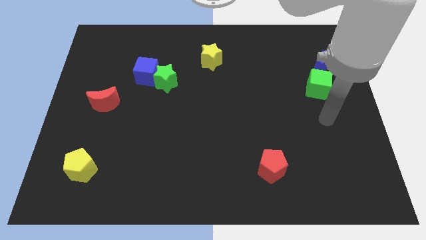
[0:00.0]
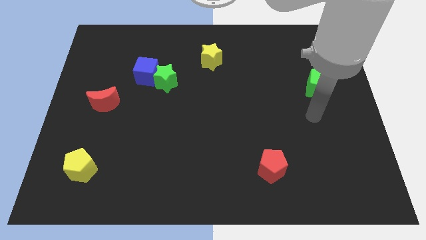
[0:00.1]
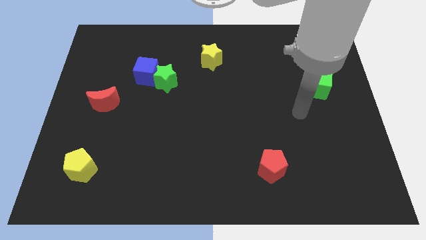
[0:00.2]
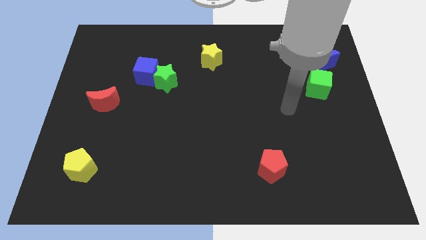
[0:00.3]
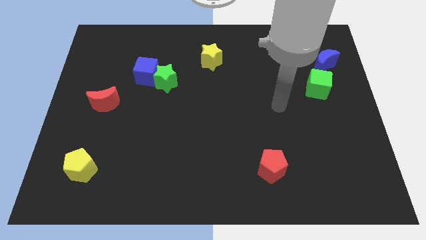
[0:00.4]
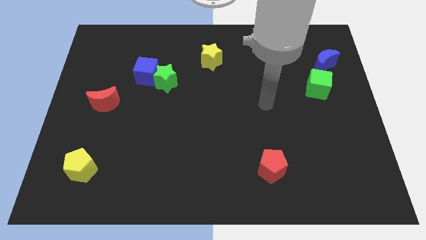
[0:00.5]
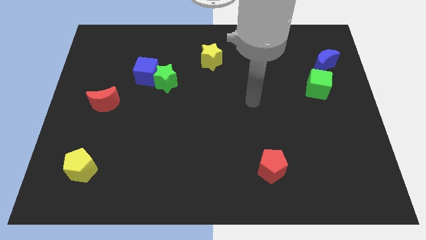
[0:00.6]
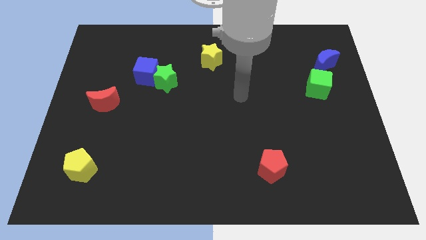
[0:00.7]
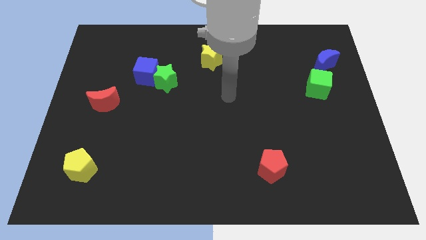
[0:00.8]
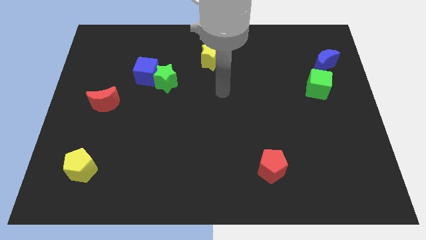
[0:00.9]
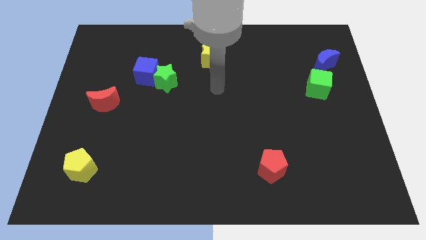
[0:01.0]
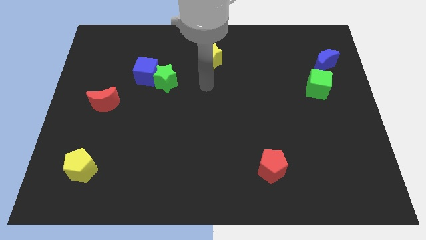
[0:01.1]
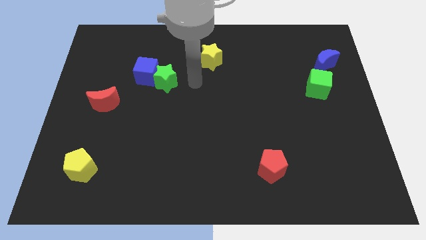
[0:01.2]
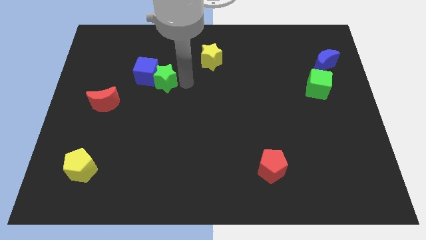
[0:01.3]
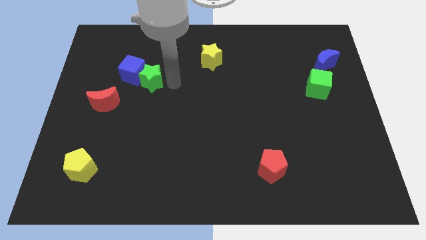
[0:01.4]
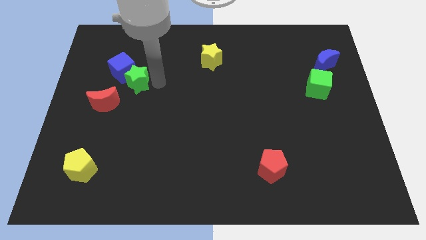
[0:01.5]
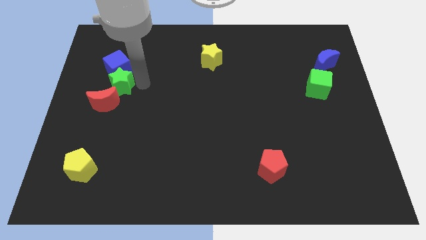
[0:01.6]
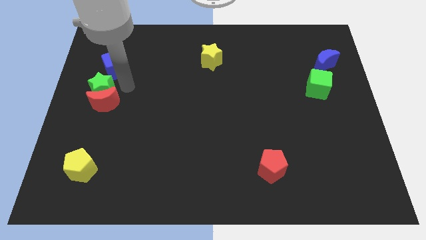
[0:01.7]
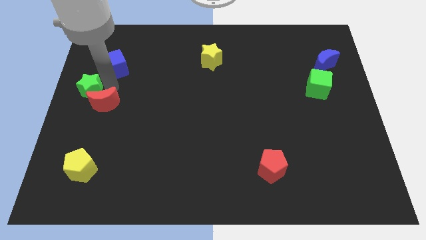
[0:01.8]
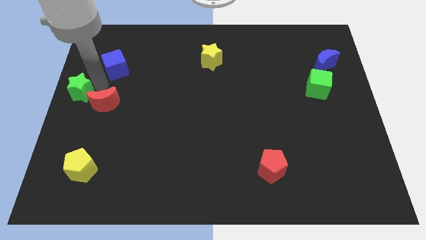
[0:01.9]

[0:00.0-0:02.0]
separate the blue cube from the green star

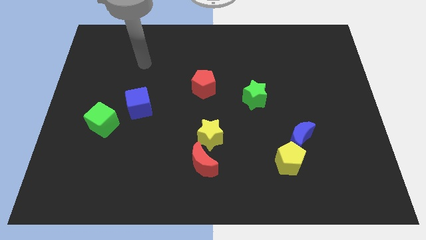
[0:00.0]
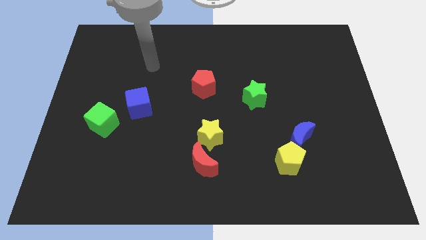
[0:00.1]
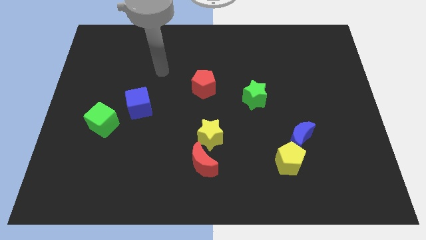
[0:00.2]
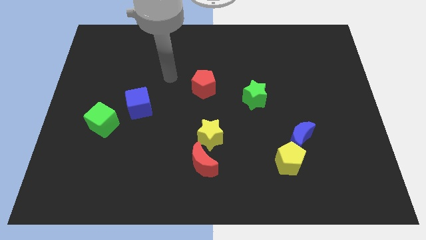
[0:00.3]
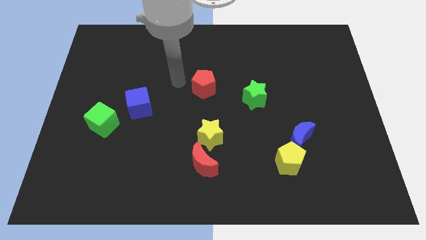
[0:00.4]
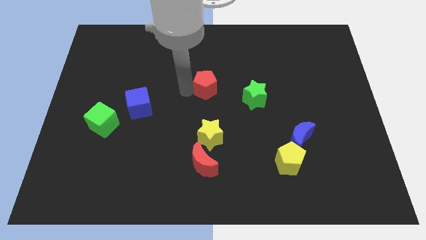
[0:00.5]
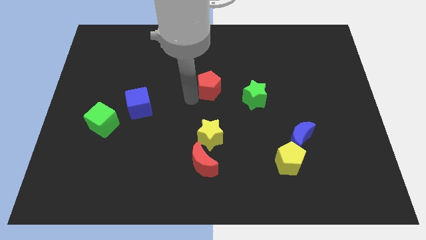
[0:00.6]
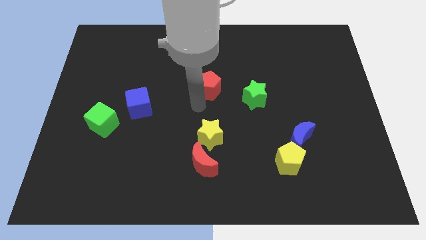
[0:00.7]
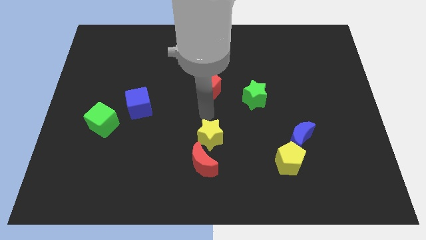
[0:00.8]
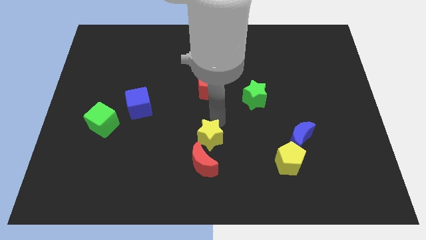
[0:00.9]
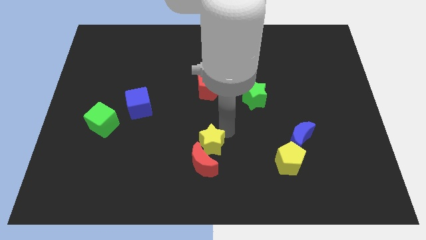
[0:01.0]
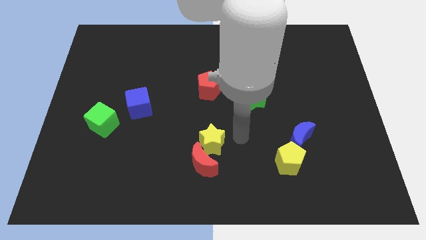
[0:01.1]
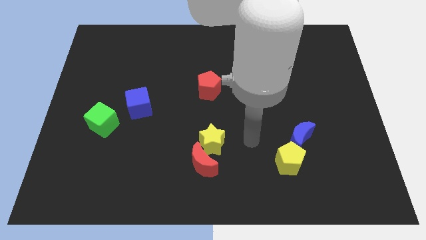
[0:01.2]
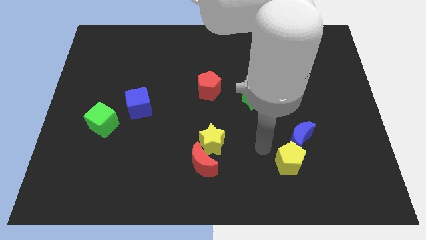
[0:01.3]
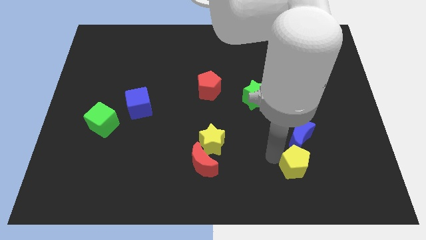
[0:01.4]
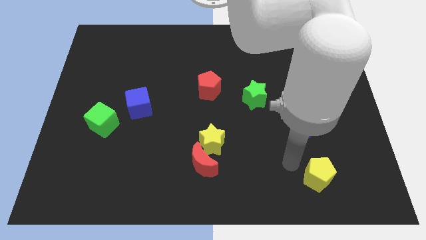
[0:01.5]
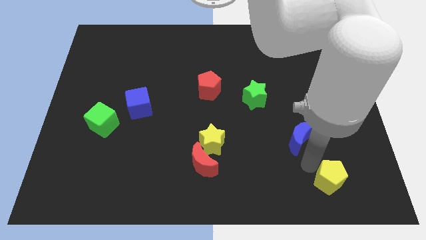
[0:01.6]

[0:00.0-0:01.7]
pull the blue moon apart from the yellow pentagon

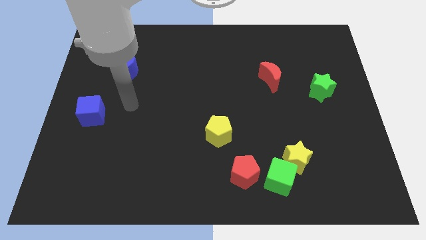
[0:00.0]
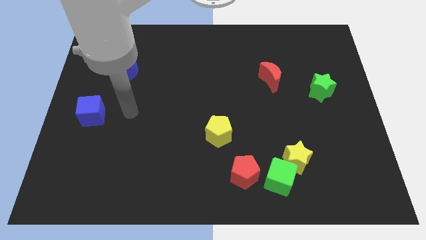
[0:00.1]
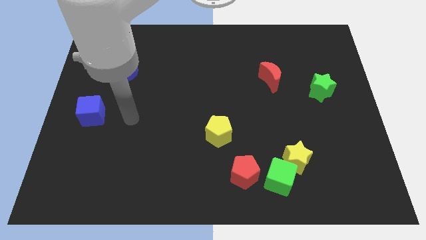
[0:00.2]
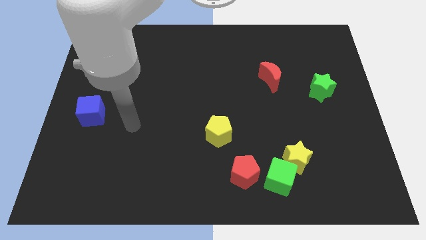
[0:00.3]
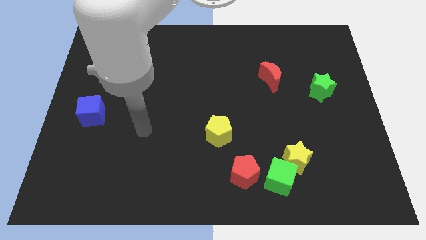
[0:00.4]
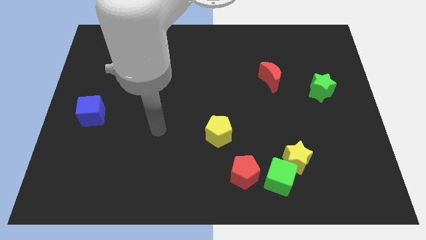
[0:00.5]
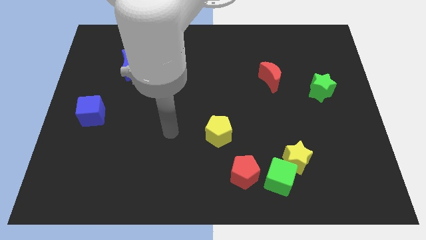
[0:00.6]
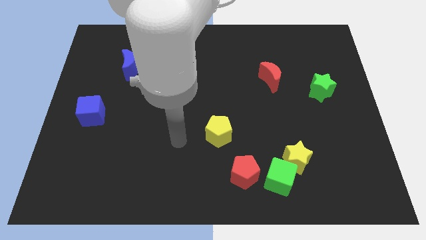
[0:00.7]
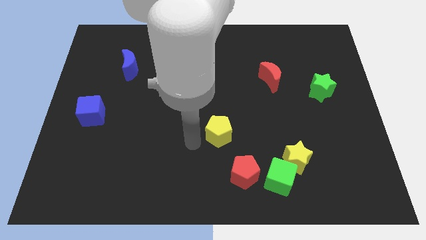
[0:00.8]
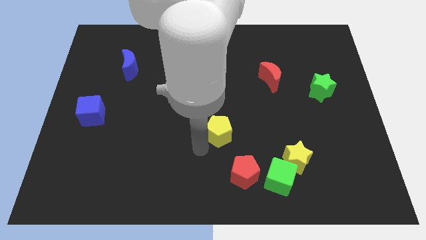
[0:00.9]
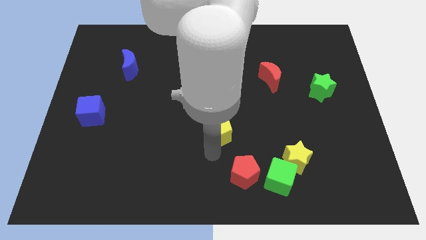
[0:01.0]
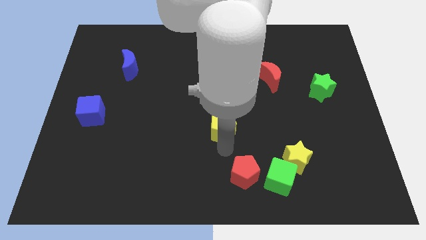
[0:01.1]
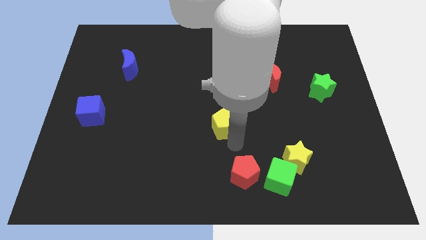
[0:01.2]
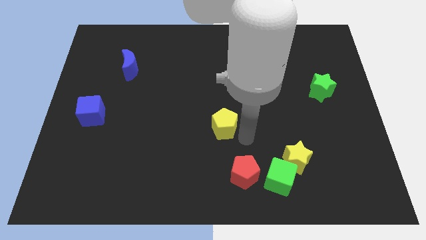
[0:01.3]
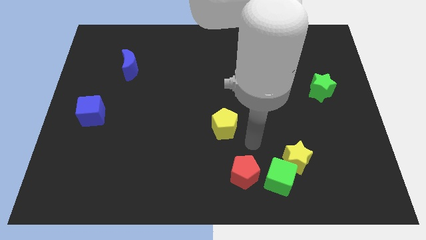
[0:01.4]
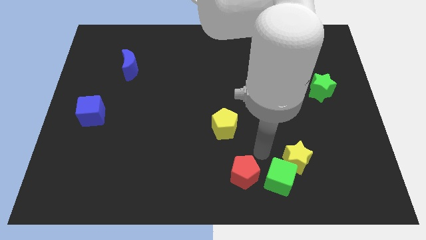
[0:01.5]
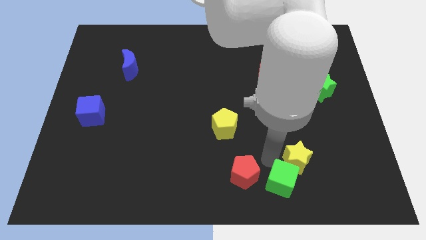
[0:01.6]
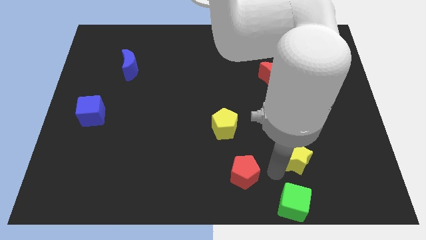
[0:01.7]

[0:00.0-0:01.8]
move the yellow star away from the green cube

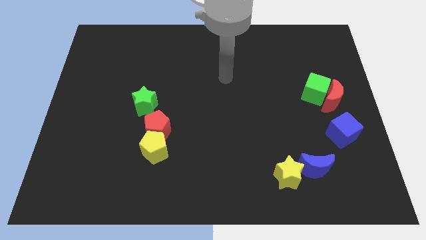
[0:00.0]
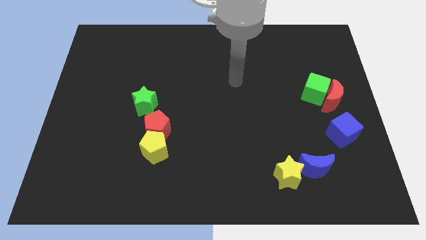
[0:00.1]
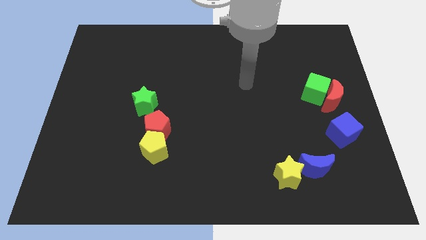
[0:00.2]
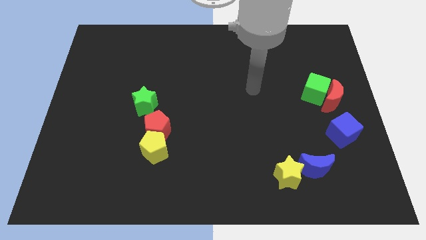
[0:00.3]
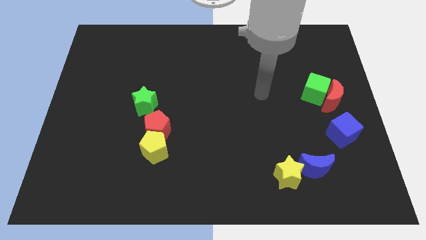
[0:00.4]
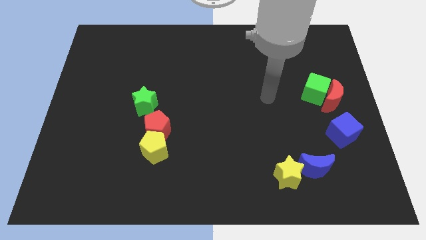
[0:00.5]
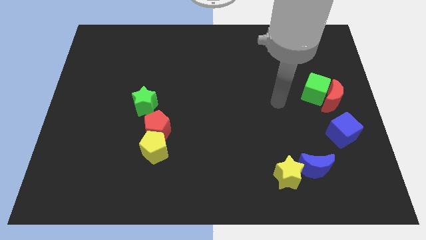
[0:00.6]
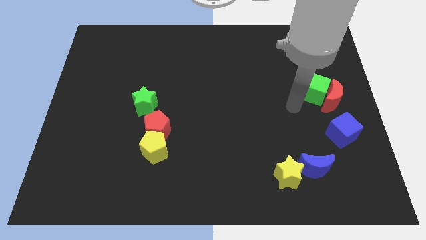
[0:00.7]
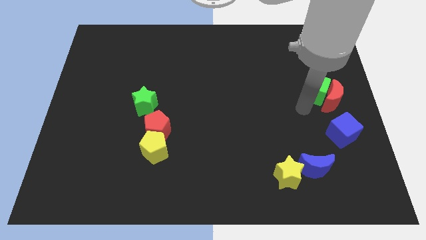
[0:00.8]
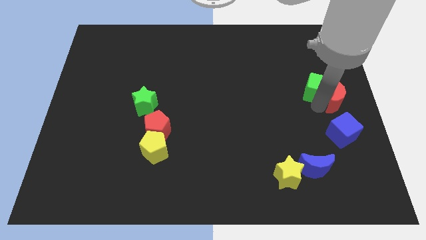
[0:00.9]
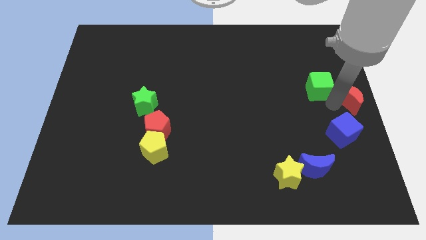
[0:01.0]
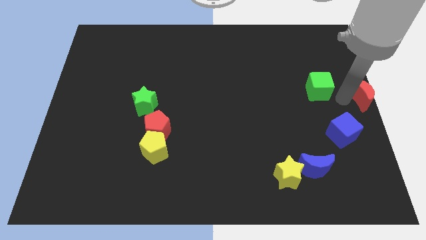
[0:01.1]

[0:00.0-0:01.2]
move the green cube away from the red moon

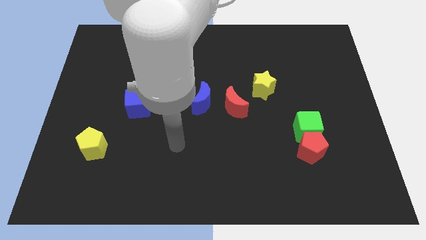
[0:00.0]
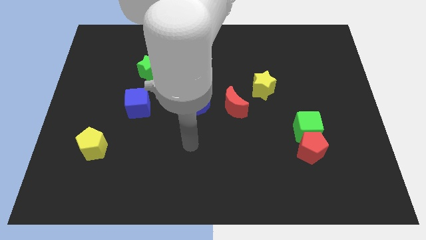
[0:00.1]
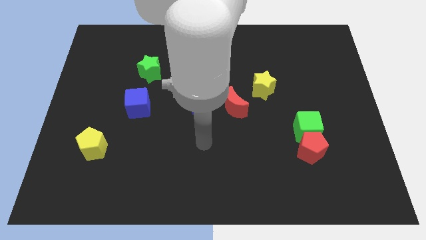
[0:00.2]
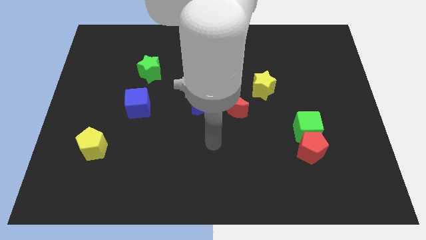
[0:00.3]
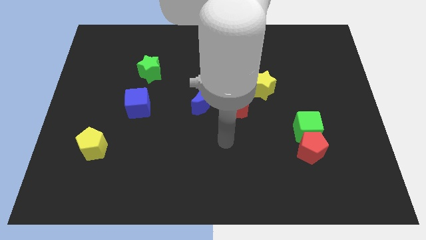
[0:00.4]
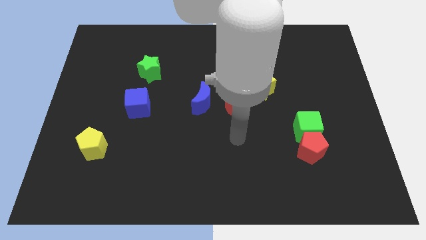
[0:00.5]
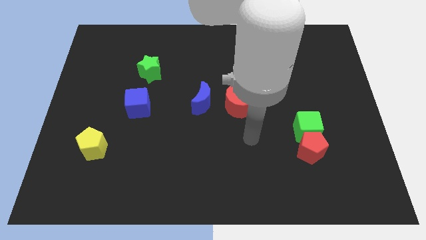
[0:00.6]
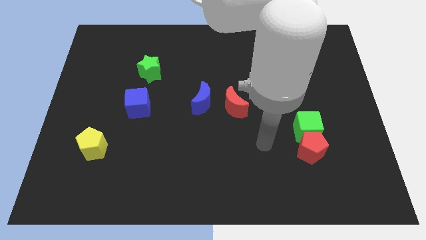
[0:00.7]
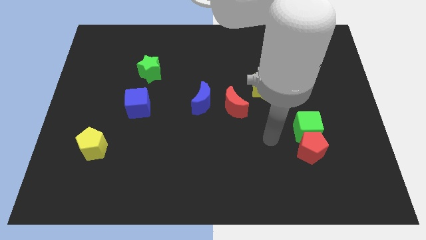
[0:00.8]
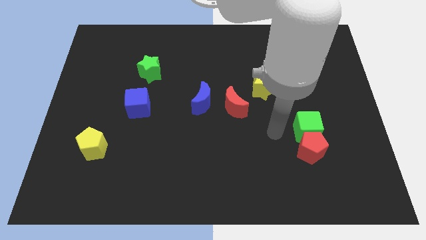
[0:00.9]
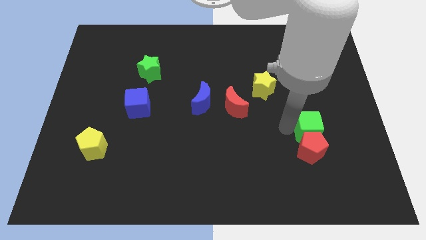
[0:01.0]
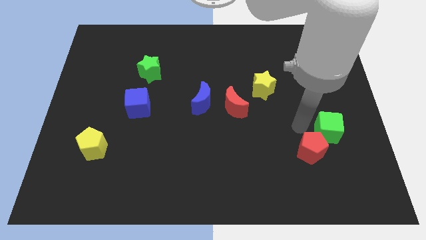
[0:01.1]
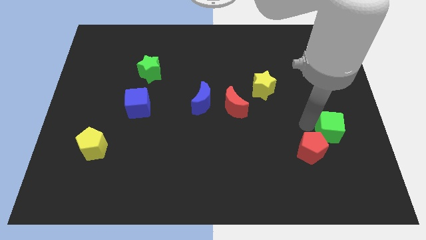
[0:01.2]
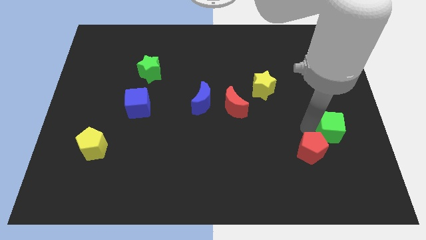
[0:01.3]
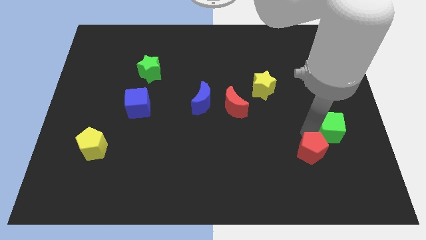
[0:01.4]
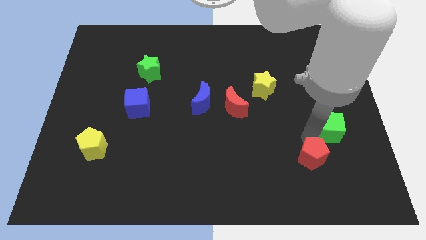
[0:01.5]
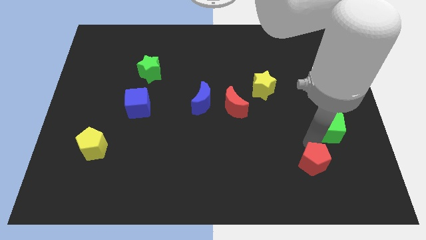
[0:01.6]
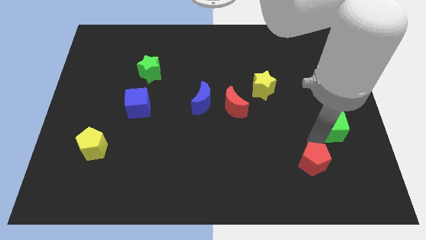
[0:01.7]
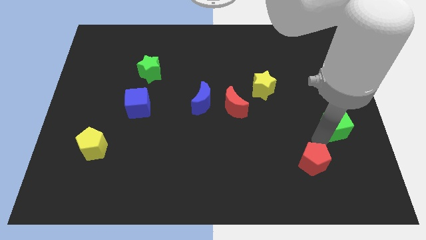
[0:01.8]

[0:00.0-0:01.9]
move the red pentagon away from the green cube

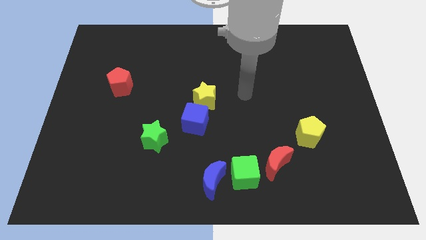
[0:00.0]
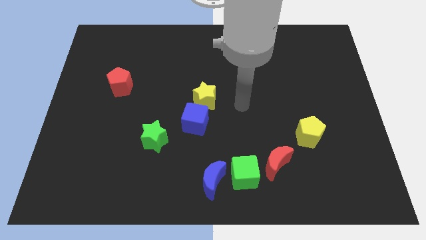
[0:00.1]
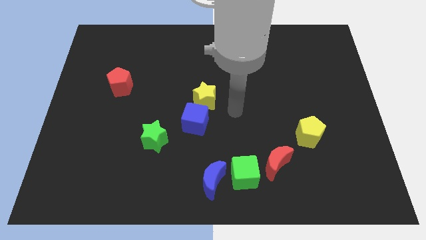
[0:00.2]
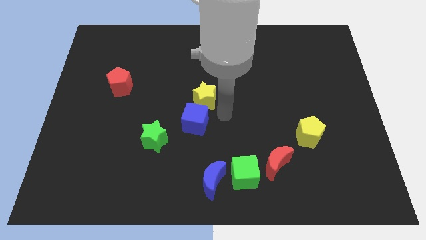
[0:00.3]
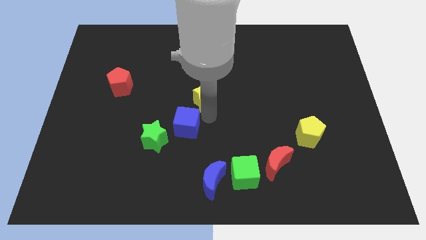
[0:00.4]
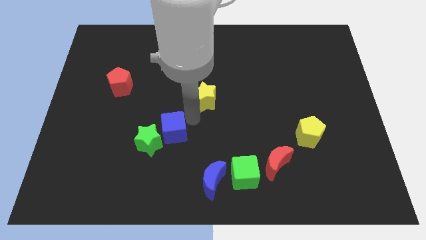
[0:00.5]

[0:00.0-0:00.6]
pull the yellow star apart from the blue cube

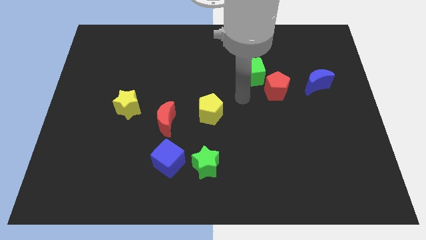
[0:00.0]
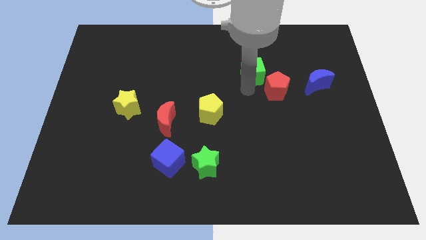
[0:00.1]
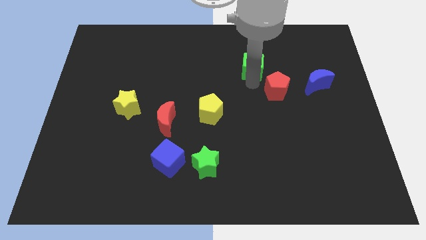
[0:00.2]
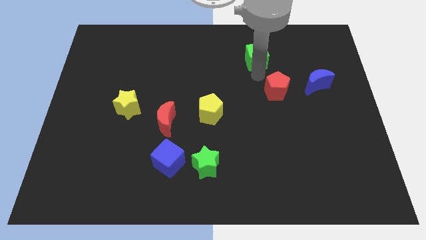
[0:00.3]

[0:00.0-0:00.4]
pull the red pentagon apart from the green cube
